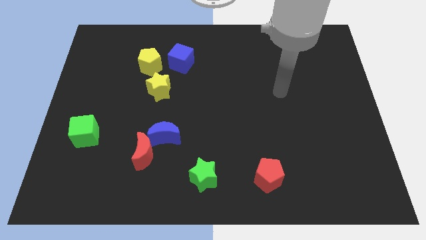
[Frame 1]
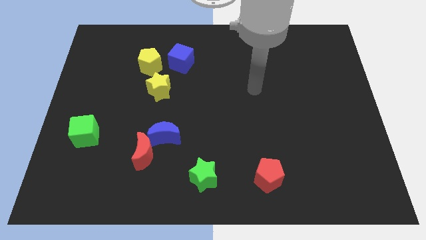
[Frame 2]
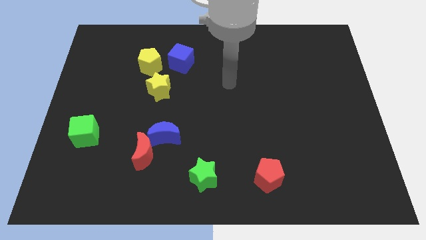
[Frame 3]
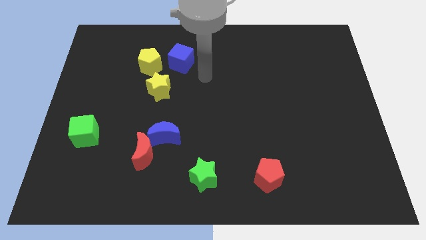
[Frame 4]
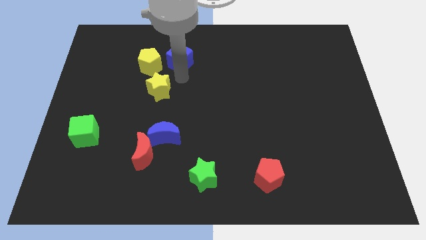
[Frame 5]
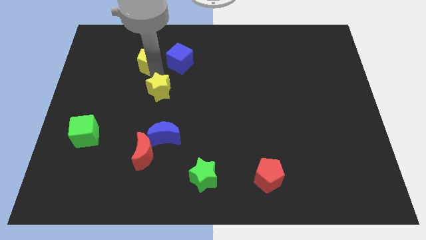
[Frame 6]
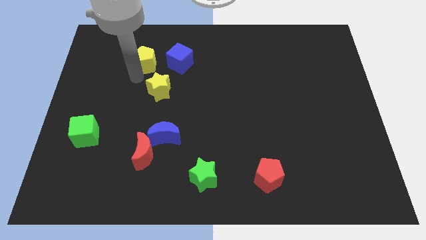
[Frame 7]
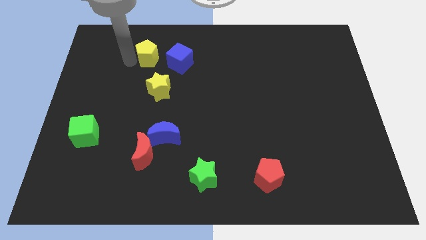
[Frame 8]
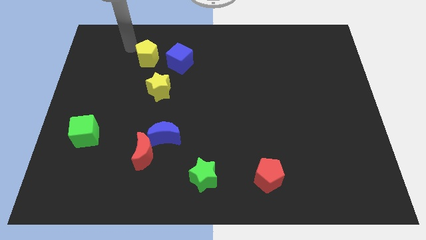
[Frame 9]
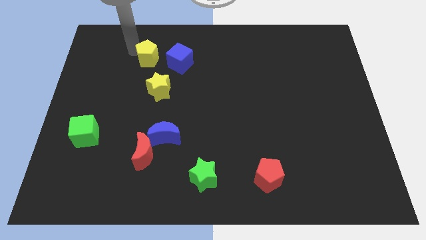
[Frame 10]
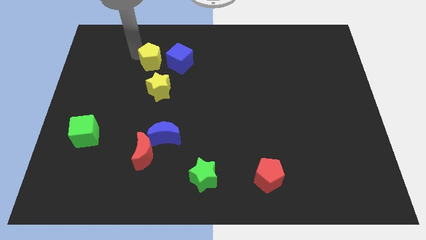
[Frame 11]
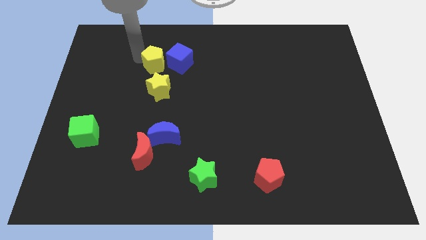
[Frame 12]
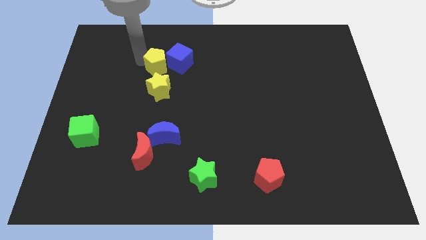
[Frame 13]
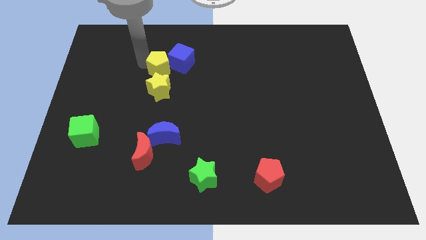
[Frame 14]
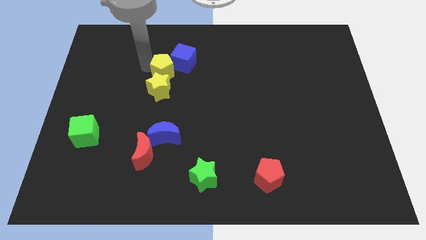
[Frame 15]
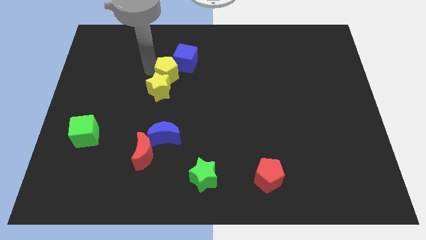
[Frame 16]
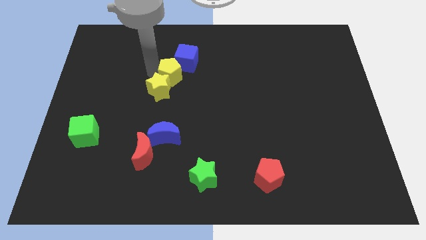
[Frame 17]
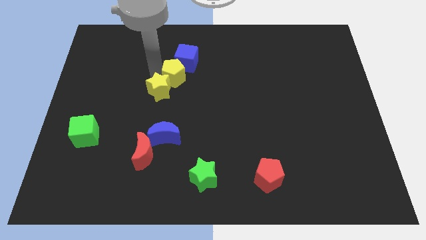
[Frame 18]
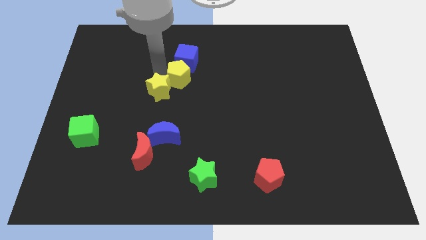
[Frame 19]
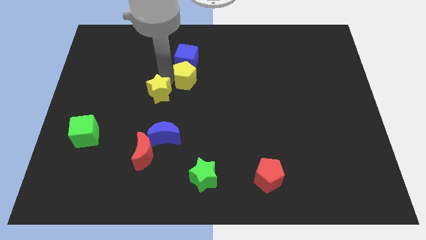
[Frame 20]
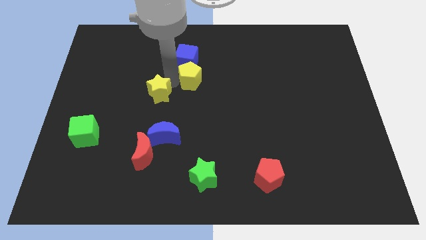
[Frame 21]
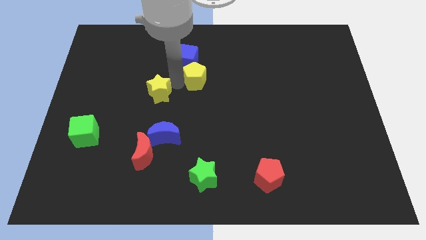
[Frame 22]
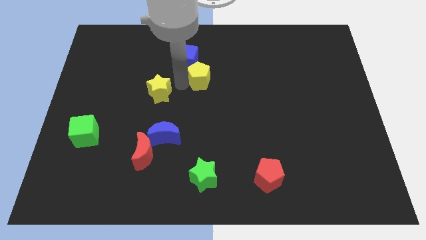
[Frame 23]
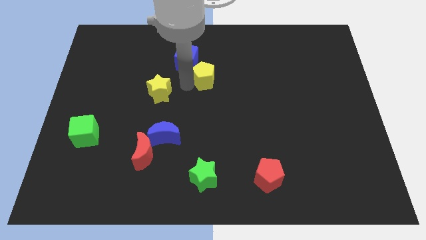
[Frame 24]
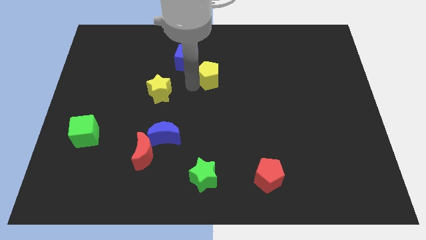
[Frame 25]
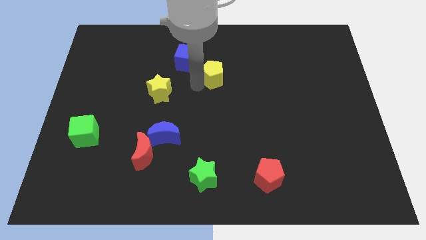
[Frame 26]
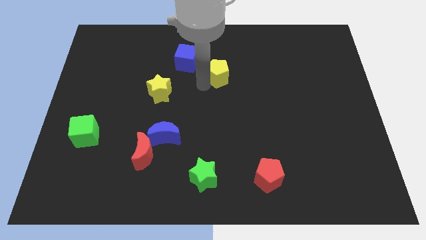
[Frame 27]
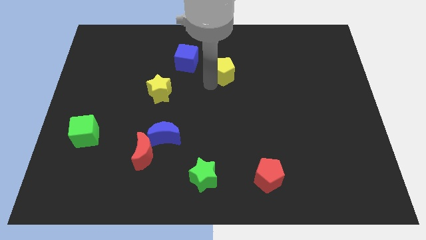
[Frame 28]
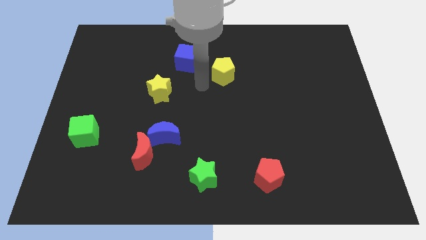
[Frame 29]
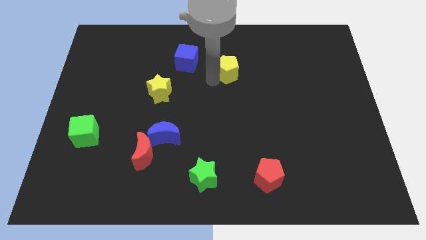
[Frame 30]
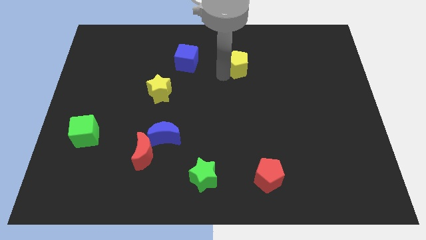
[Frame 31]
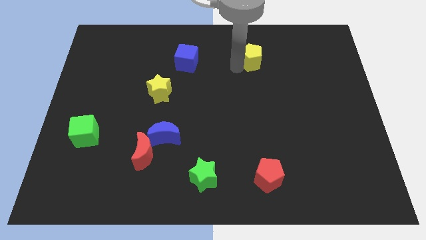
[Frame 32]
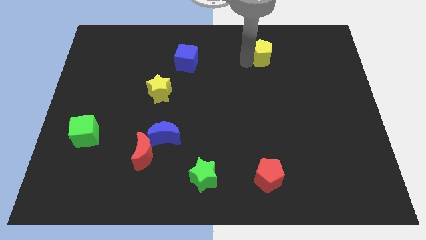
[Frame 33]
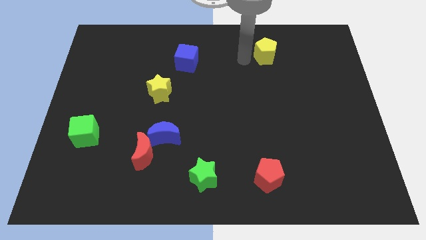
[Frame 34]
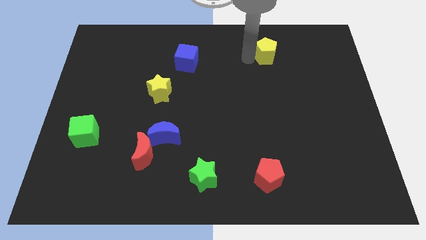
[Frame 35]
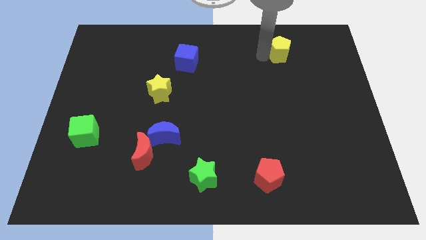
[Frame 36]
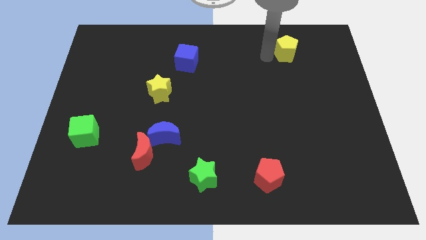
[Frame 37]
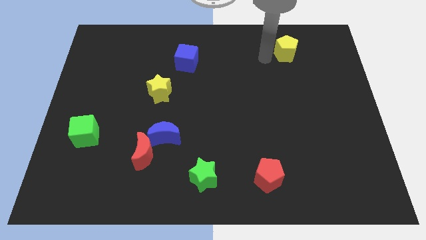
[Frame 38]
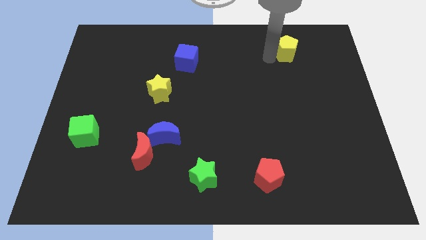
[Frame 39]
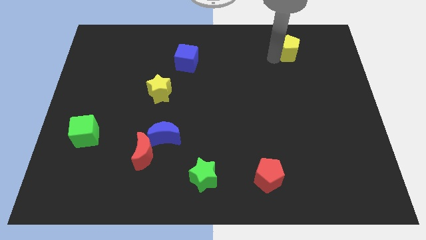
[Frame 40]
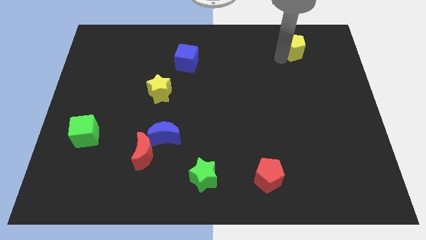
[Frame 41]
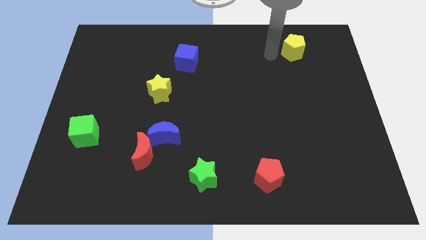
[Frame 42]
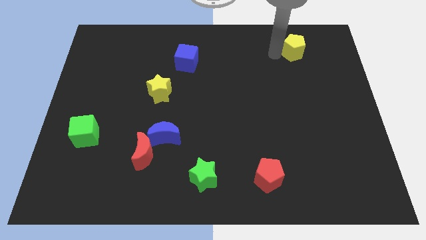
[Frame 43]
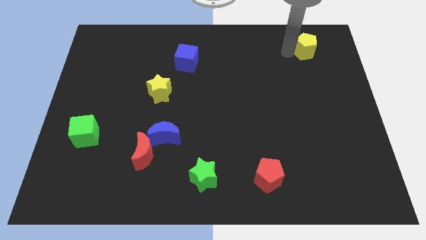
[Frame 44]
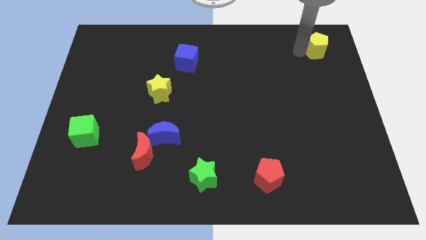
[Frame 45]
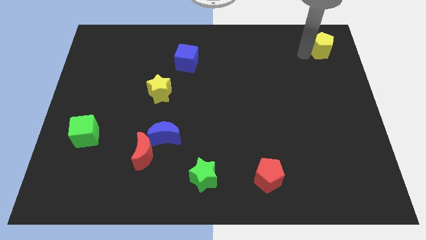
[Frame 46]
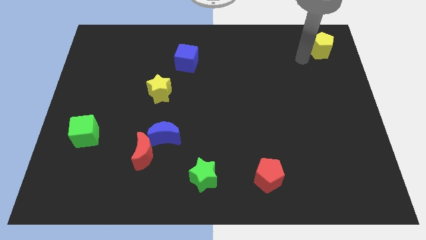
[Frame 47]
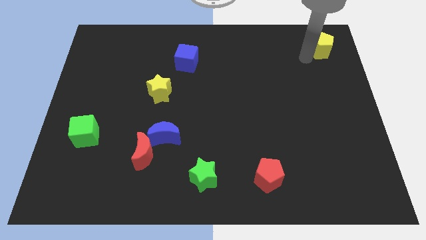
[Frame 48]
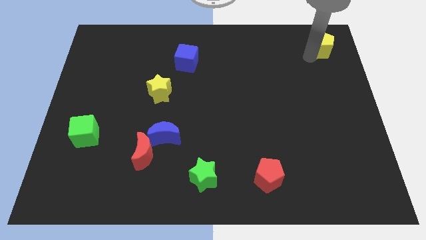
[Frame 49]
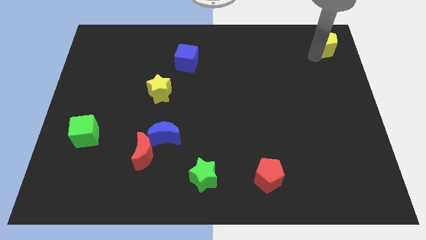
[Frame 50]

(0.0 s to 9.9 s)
put the yellow pentagon to the top right

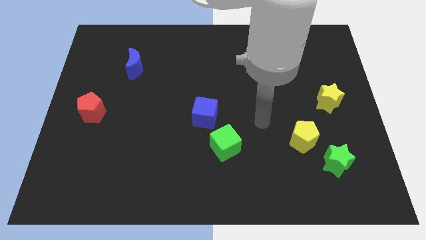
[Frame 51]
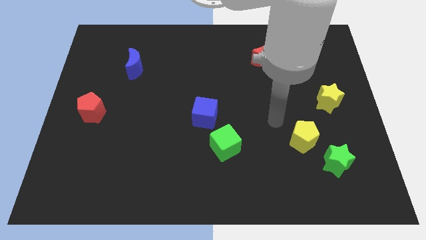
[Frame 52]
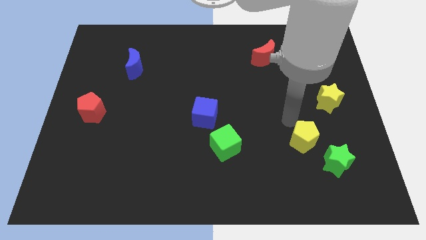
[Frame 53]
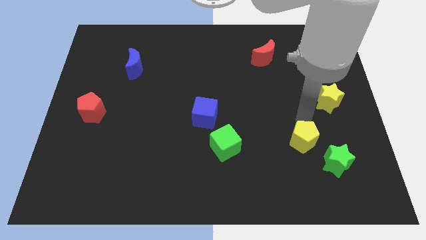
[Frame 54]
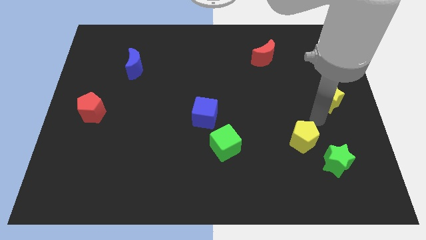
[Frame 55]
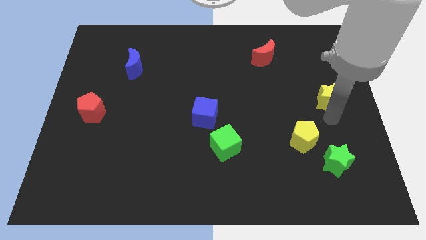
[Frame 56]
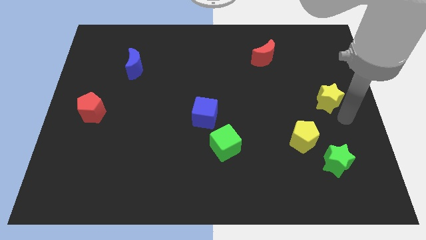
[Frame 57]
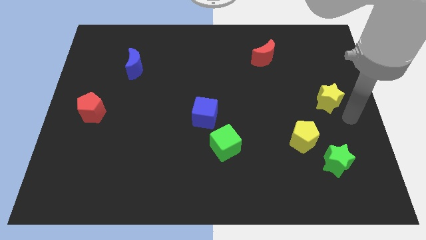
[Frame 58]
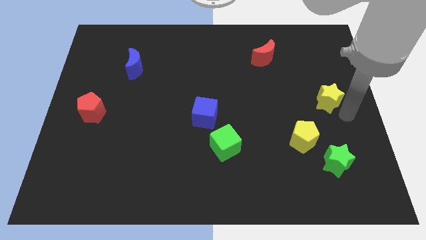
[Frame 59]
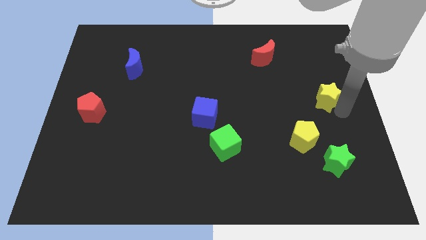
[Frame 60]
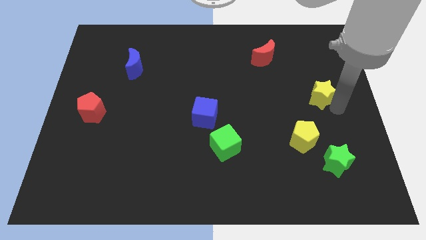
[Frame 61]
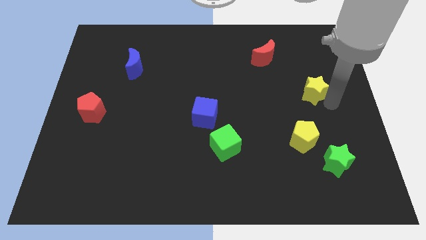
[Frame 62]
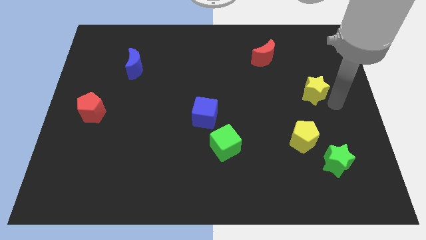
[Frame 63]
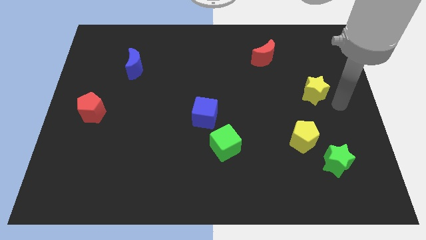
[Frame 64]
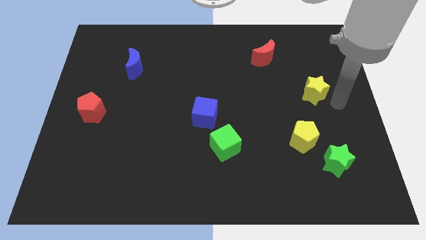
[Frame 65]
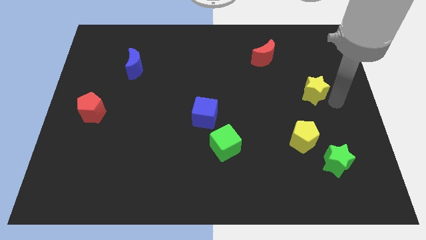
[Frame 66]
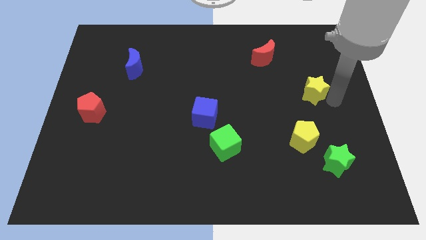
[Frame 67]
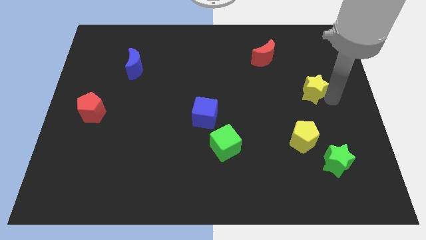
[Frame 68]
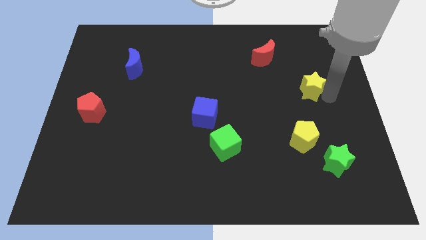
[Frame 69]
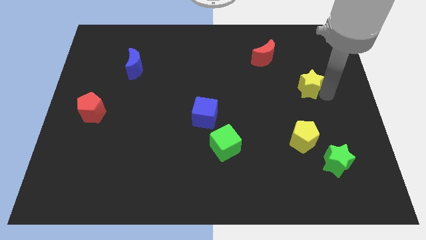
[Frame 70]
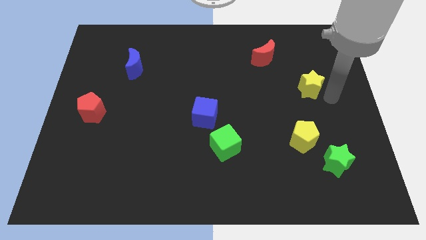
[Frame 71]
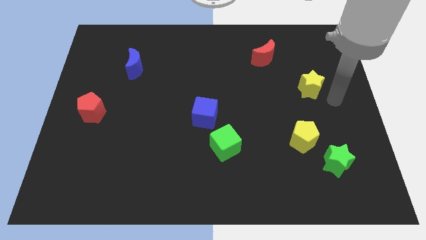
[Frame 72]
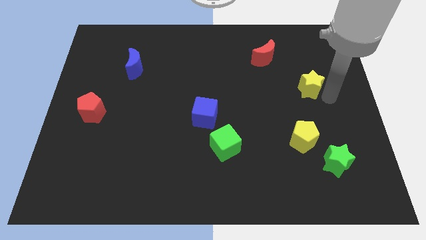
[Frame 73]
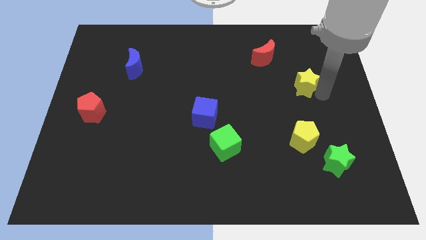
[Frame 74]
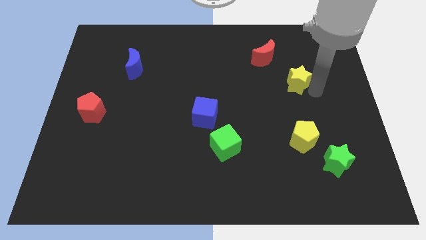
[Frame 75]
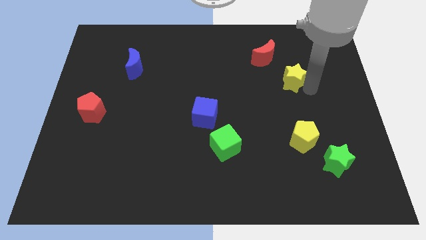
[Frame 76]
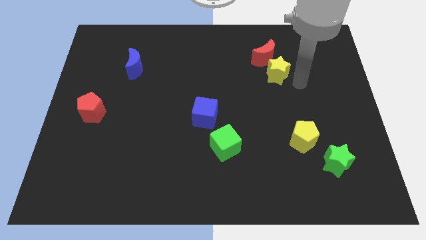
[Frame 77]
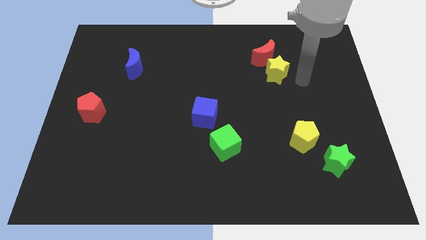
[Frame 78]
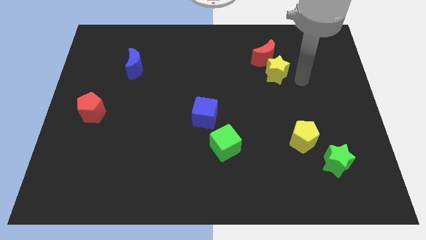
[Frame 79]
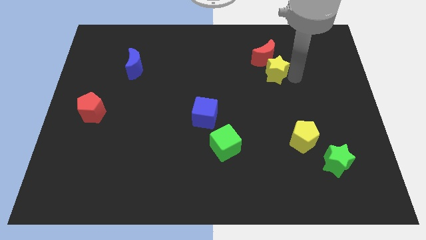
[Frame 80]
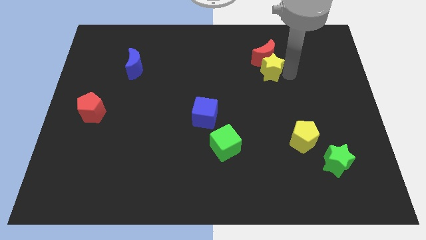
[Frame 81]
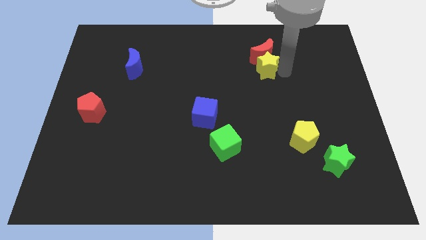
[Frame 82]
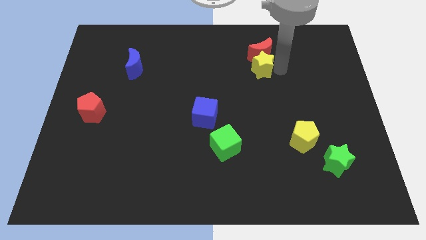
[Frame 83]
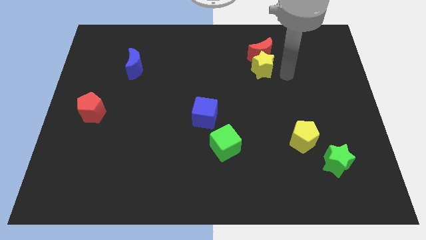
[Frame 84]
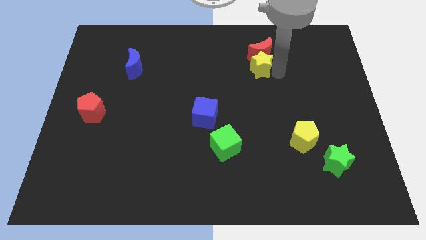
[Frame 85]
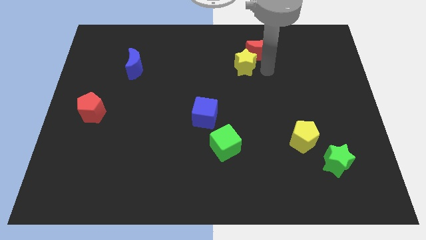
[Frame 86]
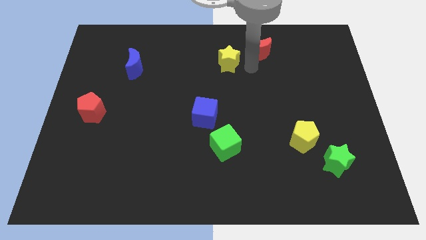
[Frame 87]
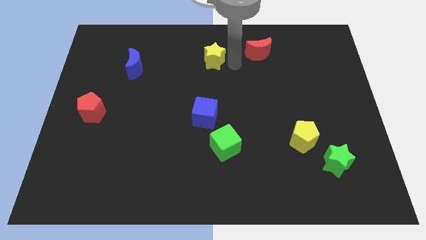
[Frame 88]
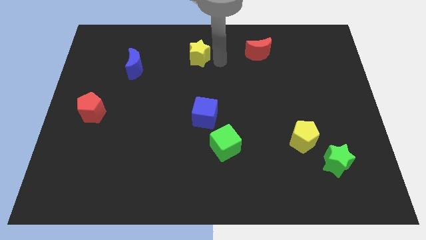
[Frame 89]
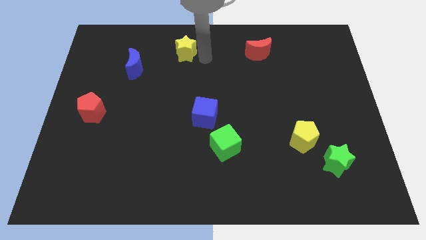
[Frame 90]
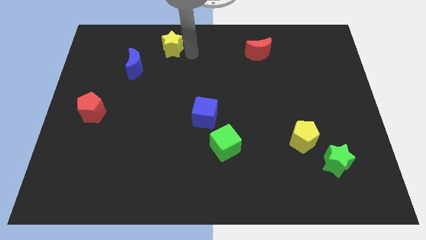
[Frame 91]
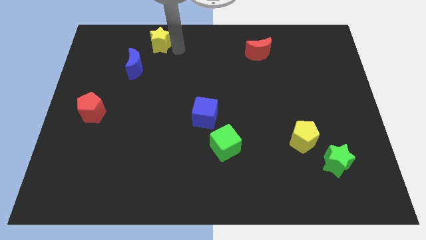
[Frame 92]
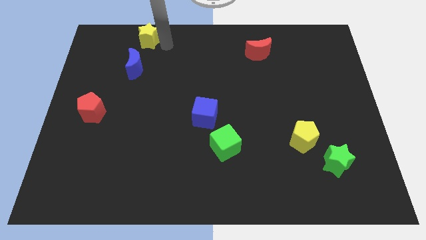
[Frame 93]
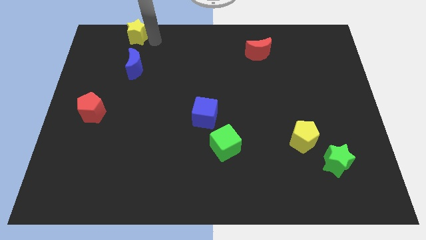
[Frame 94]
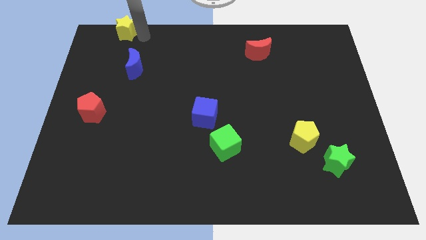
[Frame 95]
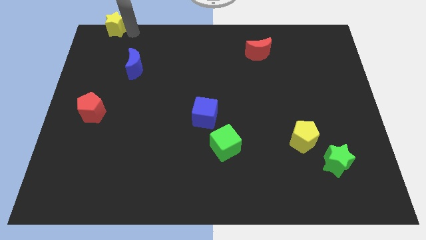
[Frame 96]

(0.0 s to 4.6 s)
move the yellow star to the top left
